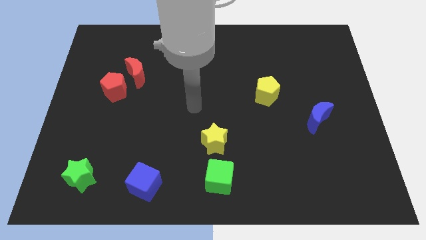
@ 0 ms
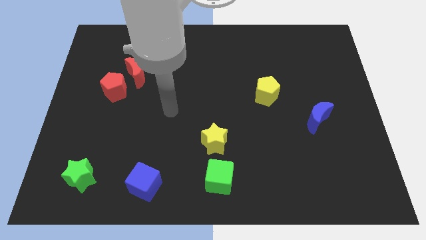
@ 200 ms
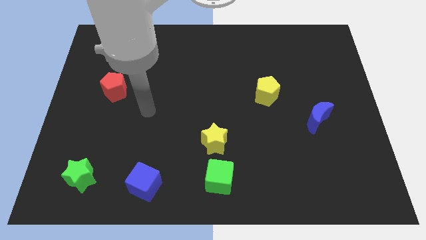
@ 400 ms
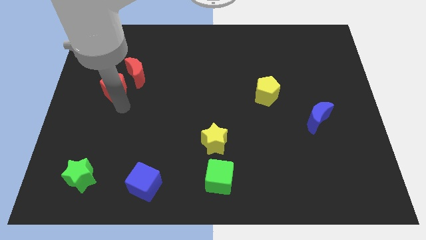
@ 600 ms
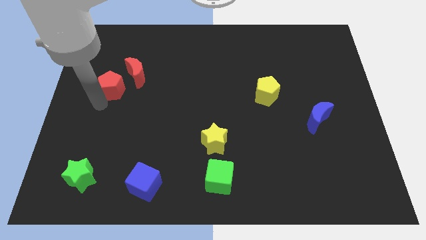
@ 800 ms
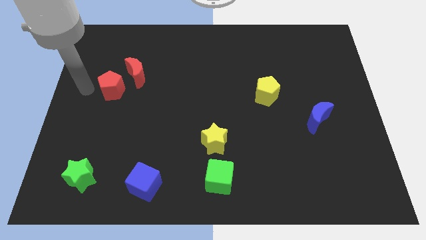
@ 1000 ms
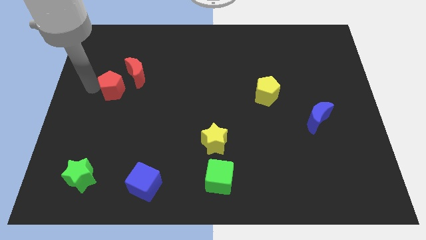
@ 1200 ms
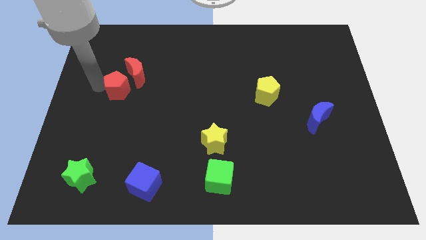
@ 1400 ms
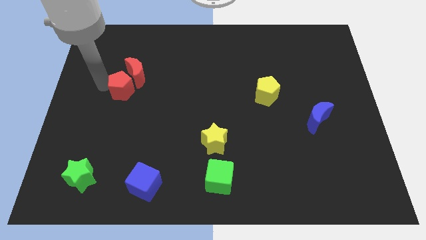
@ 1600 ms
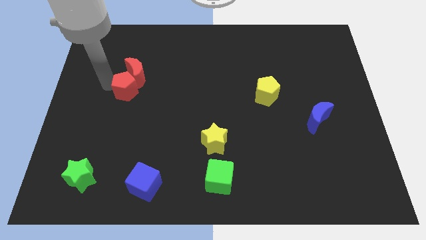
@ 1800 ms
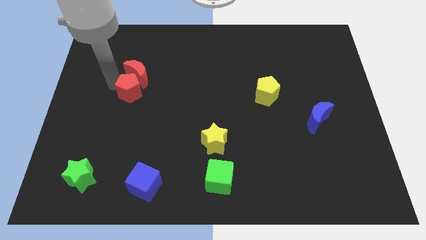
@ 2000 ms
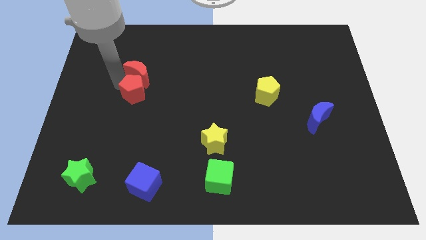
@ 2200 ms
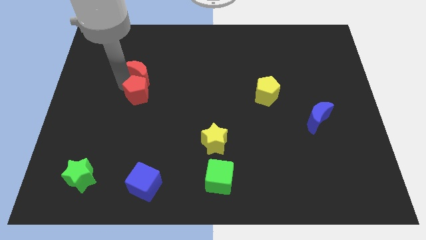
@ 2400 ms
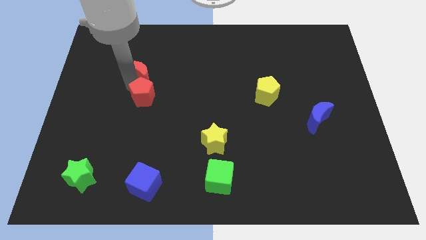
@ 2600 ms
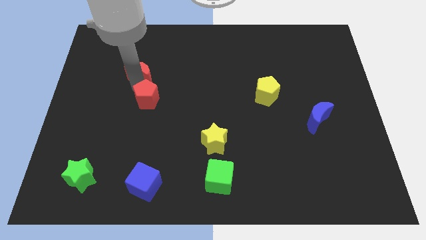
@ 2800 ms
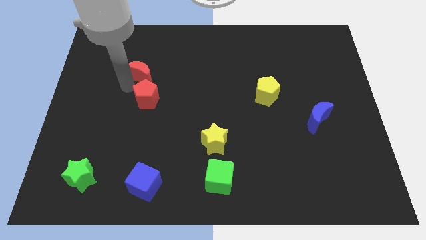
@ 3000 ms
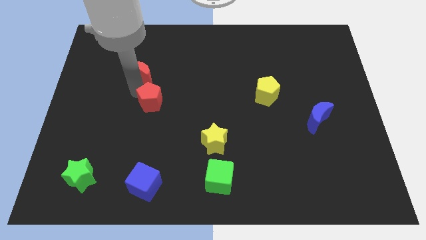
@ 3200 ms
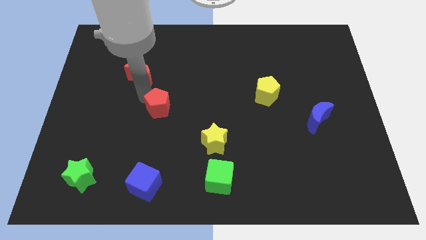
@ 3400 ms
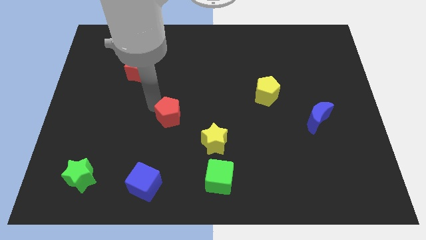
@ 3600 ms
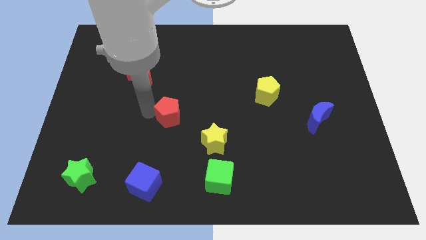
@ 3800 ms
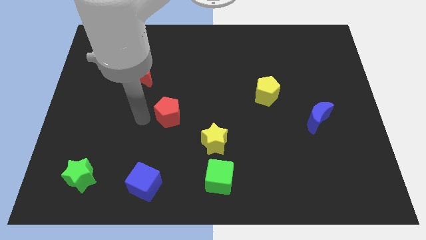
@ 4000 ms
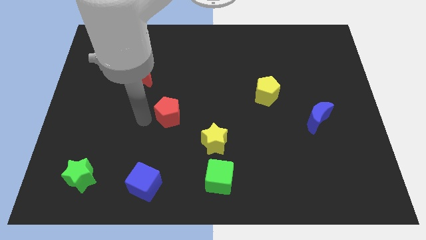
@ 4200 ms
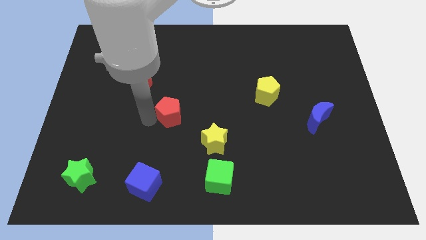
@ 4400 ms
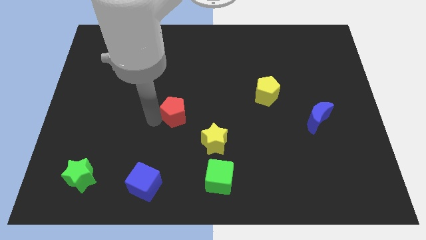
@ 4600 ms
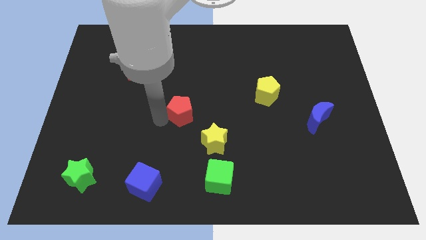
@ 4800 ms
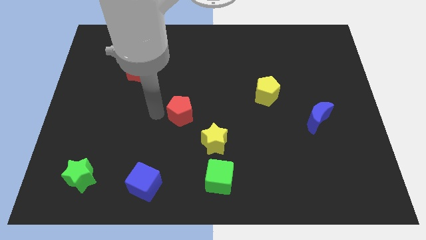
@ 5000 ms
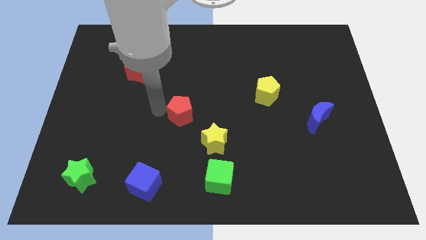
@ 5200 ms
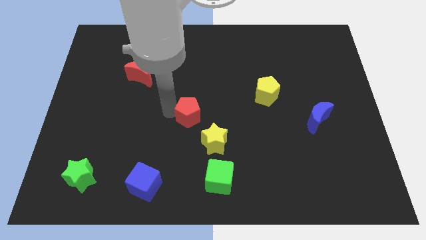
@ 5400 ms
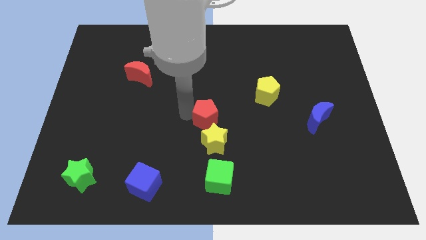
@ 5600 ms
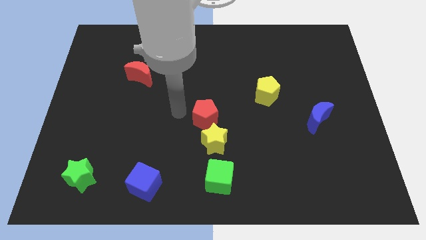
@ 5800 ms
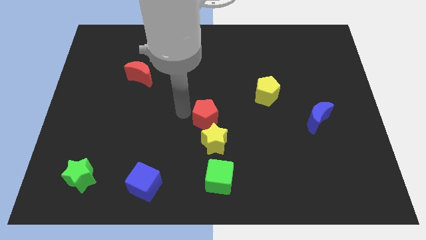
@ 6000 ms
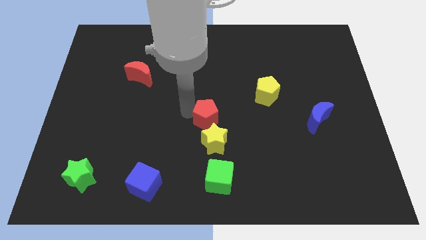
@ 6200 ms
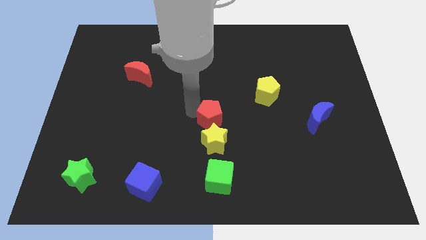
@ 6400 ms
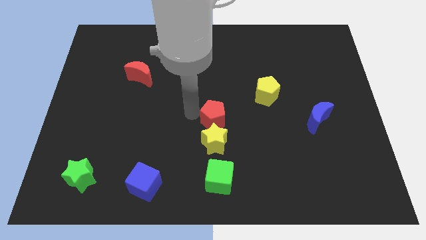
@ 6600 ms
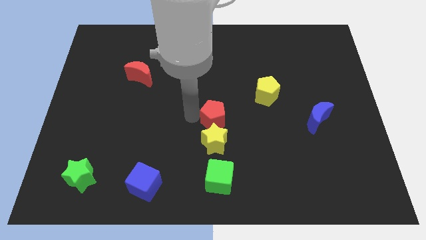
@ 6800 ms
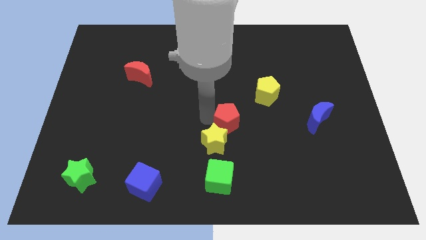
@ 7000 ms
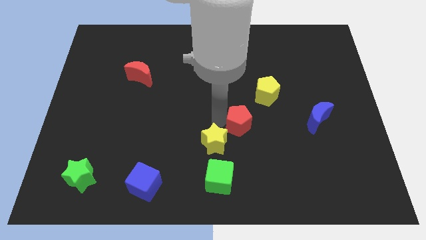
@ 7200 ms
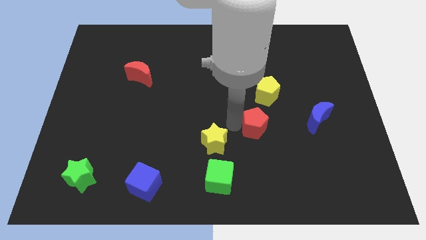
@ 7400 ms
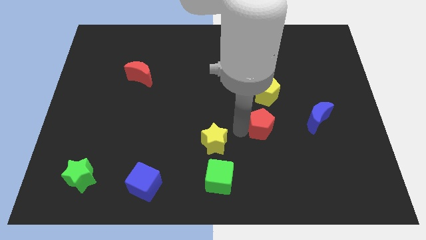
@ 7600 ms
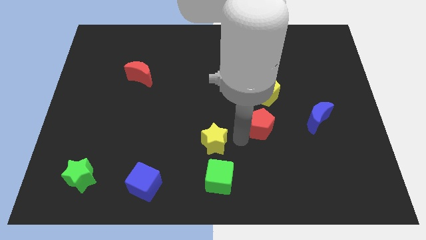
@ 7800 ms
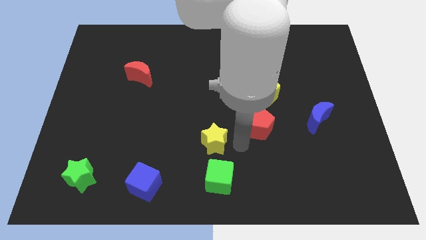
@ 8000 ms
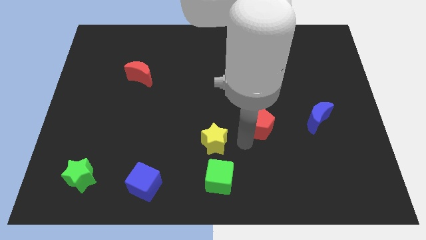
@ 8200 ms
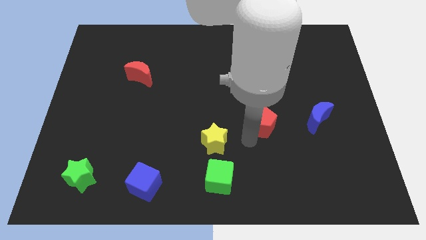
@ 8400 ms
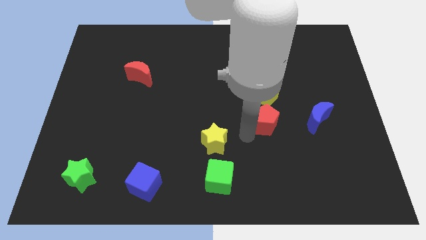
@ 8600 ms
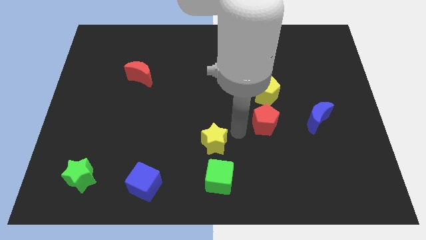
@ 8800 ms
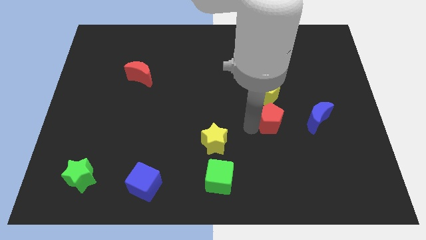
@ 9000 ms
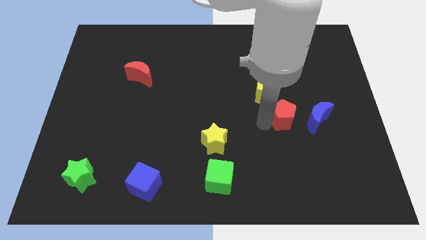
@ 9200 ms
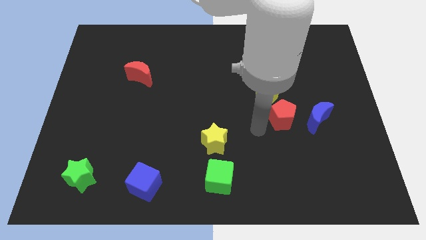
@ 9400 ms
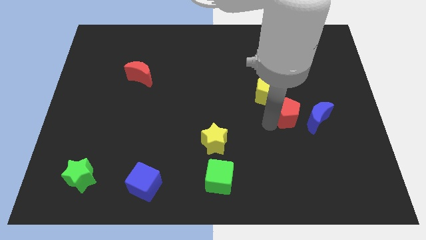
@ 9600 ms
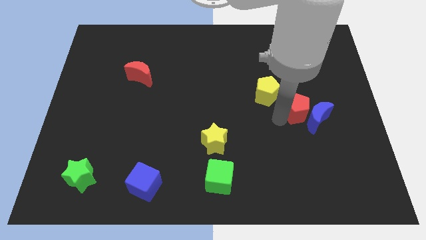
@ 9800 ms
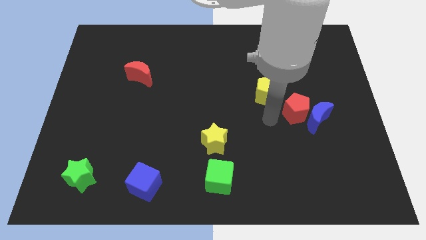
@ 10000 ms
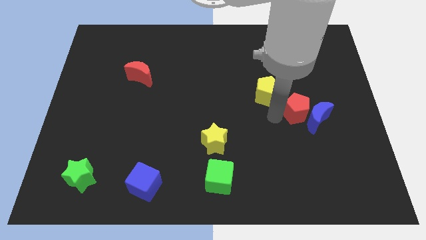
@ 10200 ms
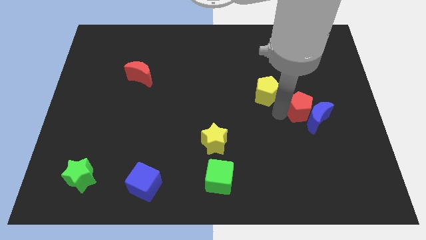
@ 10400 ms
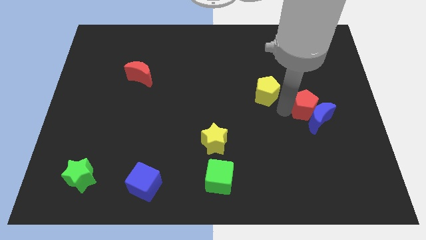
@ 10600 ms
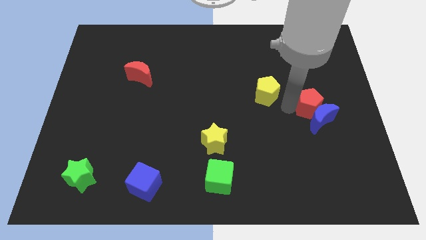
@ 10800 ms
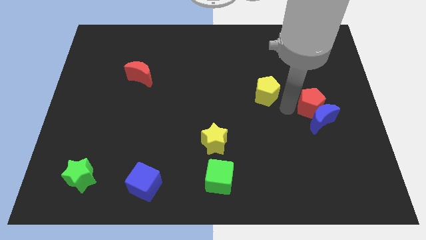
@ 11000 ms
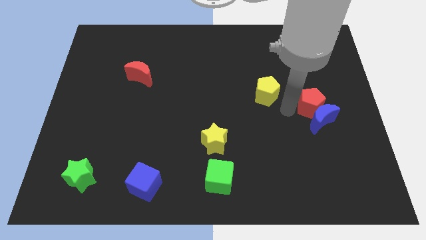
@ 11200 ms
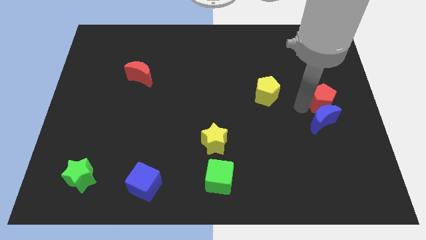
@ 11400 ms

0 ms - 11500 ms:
move the red pentagon to the right side
